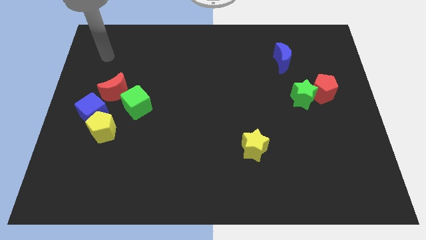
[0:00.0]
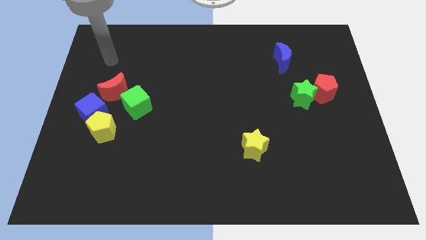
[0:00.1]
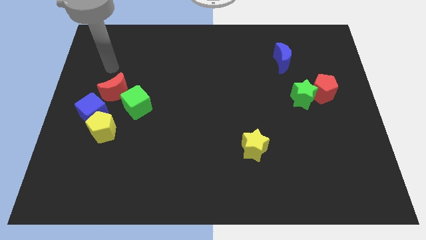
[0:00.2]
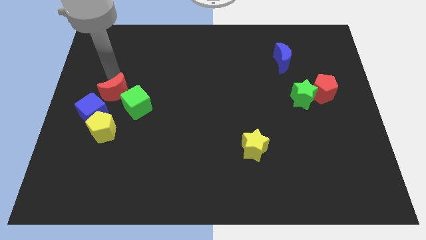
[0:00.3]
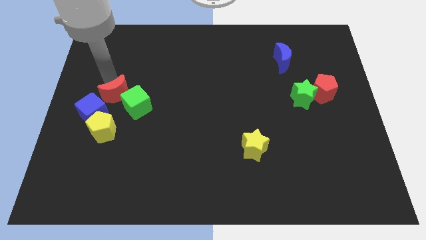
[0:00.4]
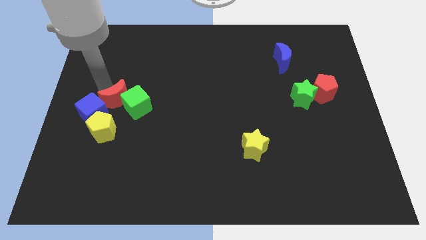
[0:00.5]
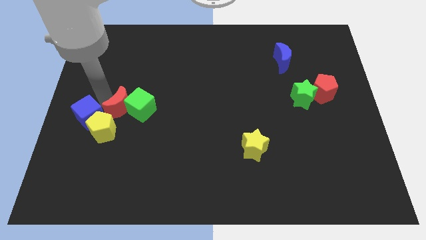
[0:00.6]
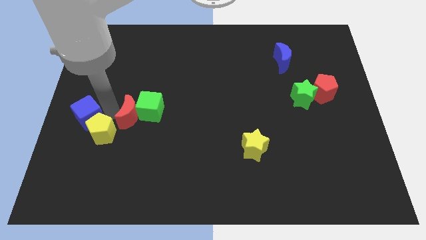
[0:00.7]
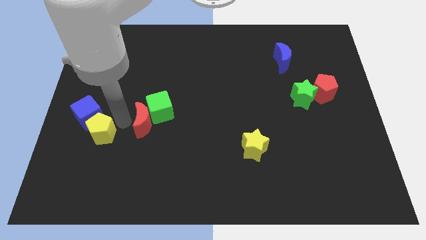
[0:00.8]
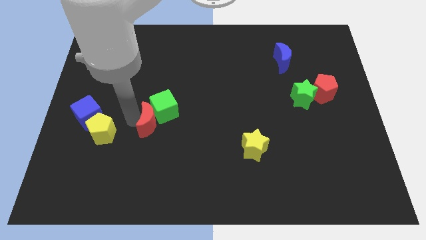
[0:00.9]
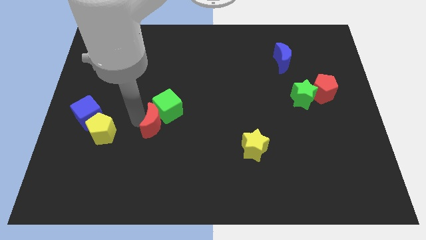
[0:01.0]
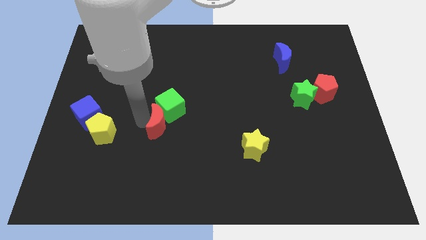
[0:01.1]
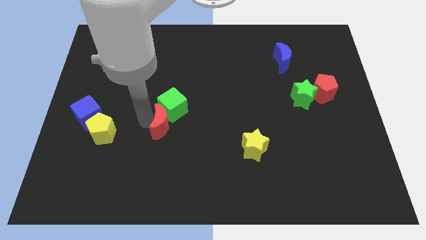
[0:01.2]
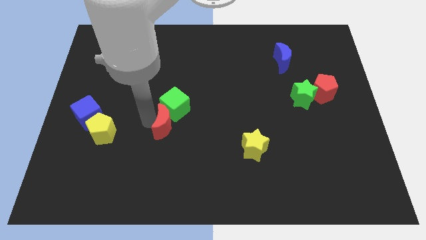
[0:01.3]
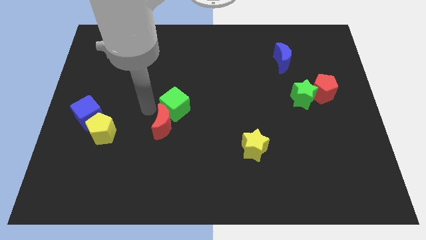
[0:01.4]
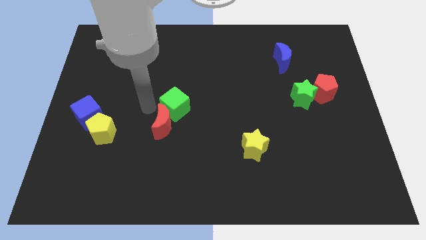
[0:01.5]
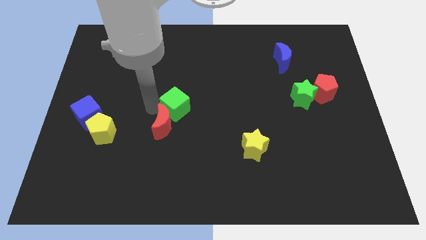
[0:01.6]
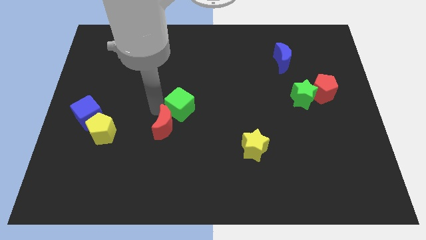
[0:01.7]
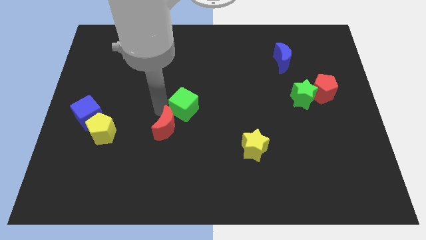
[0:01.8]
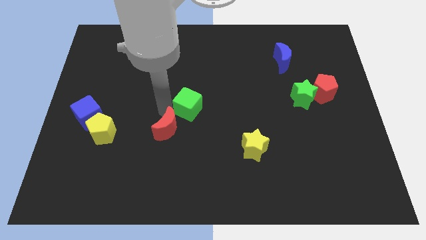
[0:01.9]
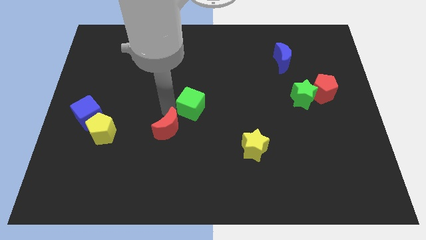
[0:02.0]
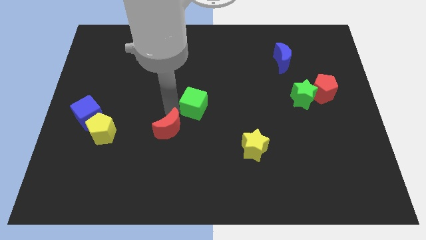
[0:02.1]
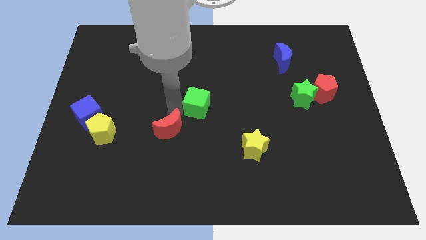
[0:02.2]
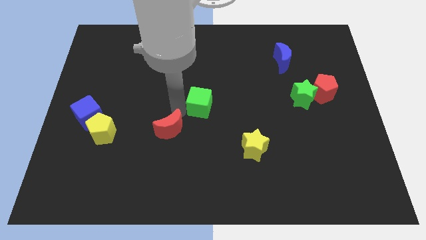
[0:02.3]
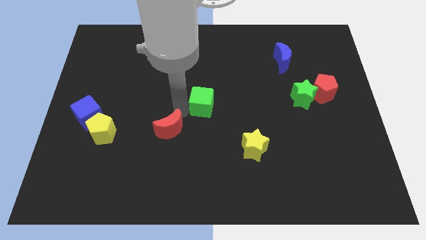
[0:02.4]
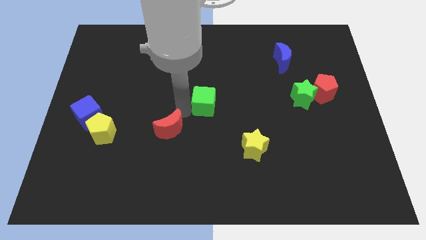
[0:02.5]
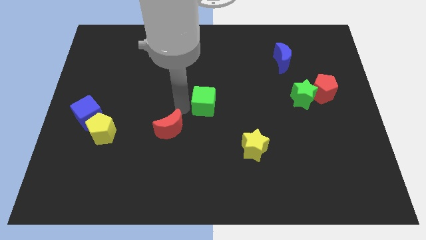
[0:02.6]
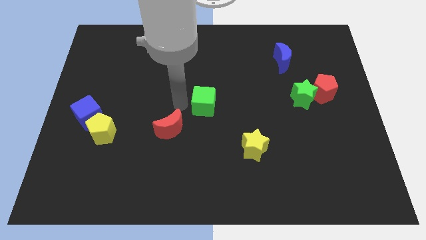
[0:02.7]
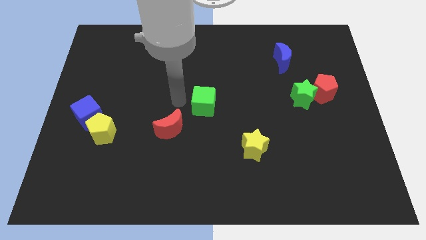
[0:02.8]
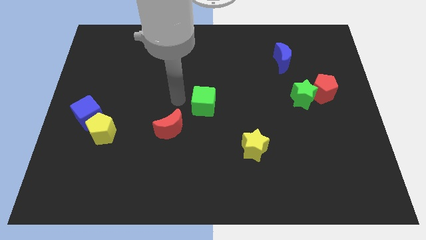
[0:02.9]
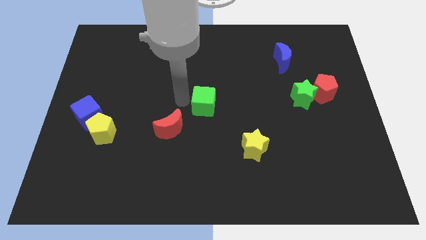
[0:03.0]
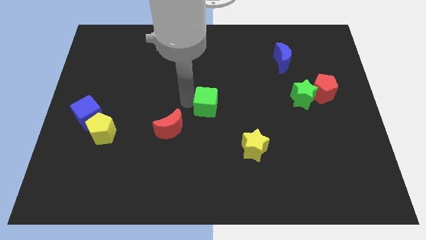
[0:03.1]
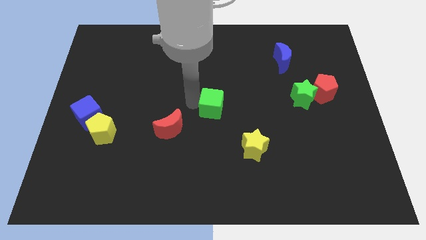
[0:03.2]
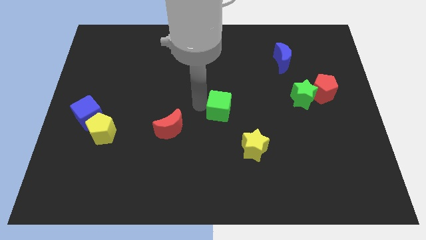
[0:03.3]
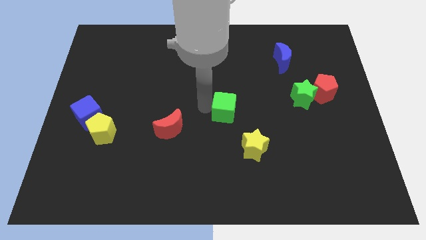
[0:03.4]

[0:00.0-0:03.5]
slide the green cube to the right

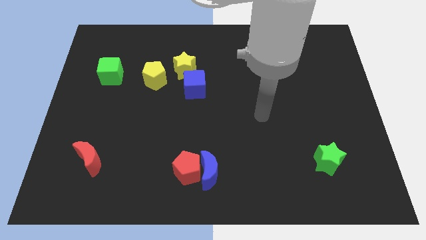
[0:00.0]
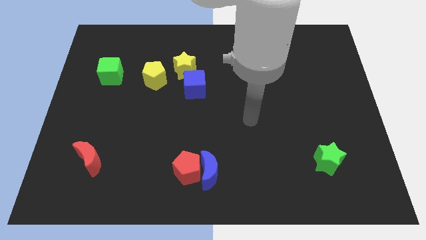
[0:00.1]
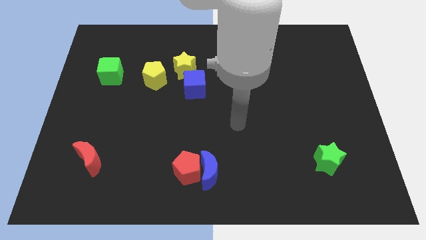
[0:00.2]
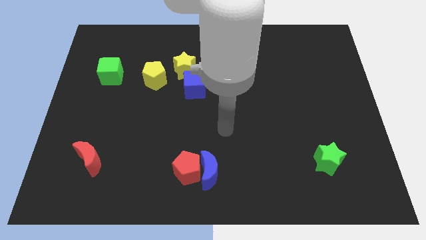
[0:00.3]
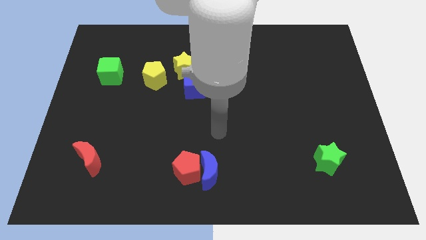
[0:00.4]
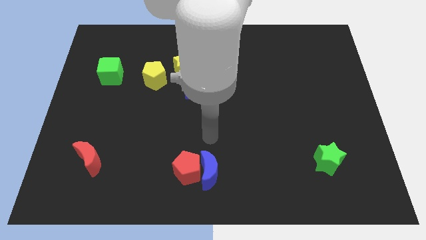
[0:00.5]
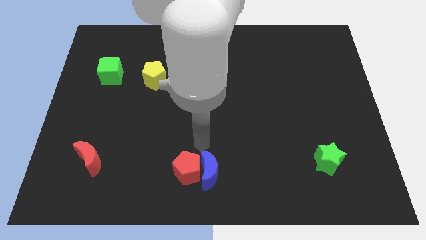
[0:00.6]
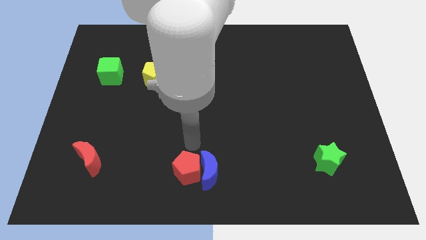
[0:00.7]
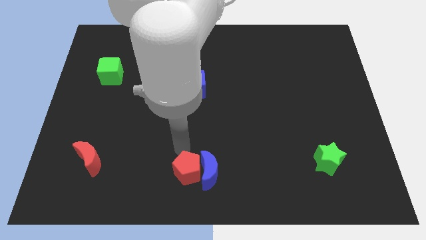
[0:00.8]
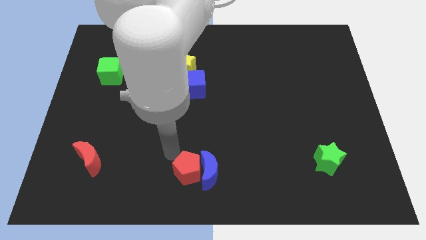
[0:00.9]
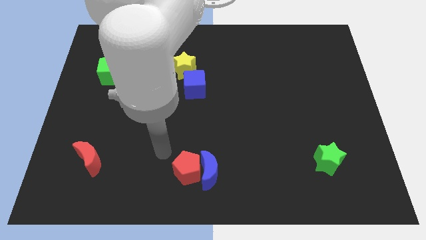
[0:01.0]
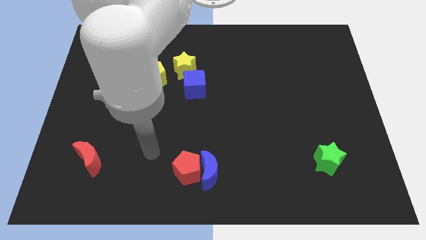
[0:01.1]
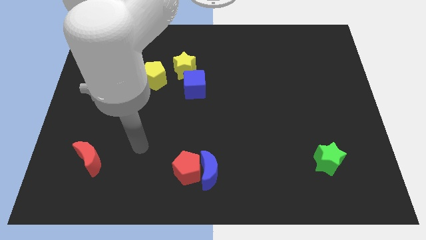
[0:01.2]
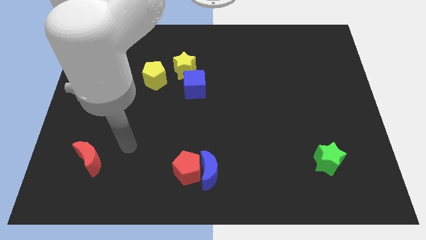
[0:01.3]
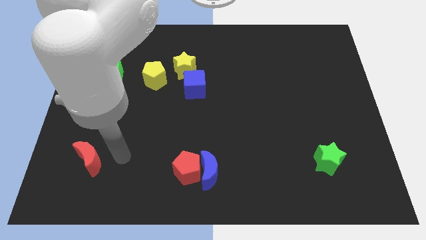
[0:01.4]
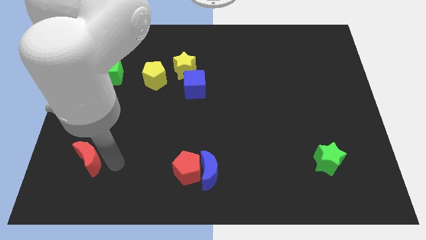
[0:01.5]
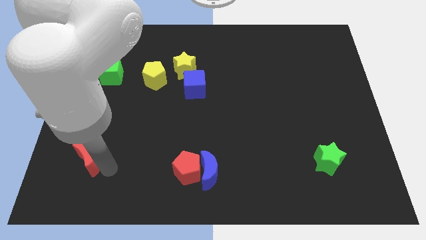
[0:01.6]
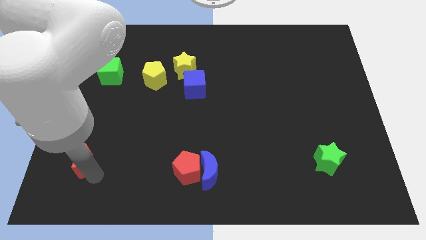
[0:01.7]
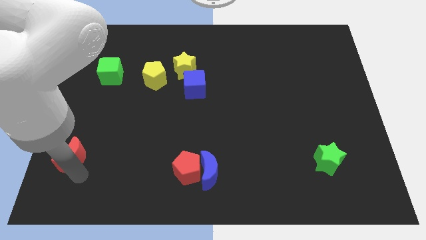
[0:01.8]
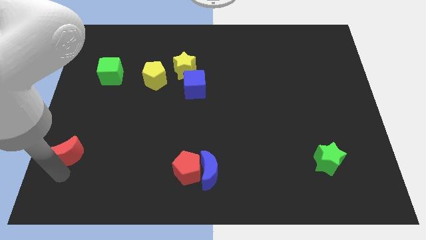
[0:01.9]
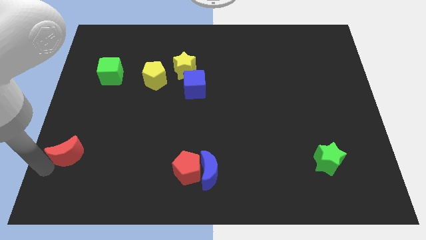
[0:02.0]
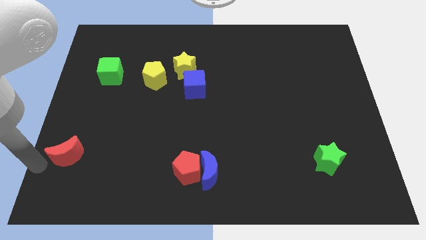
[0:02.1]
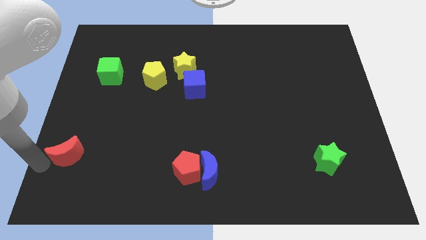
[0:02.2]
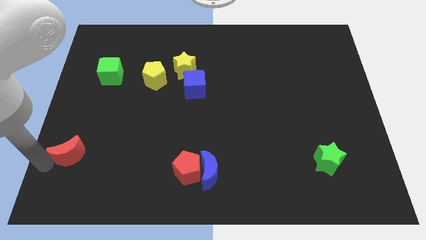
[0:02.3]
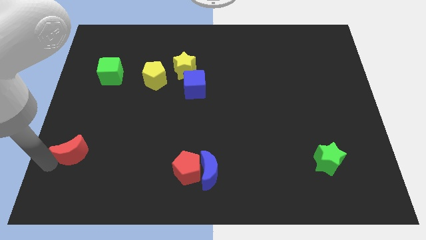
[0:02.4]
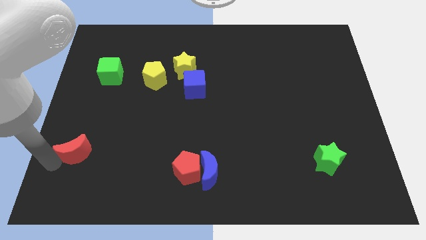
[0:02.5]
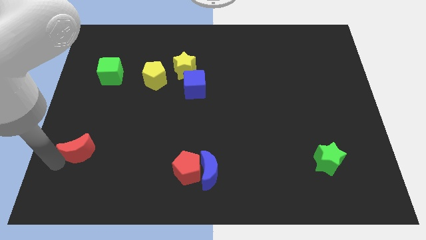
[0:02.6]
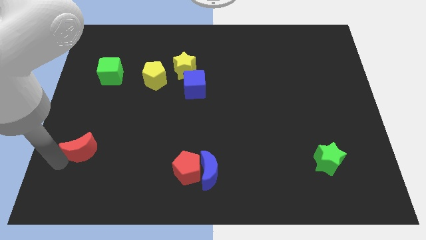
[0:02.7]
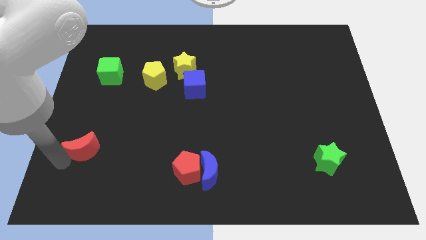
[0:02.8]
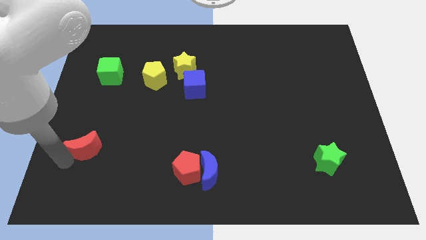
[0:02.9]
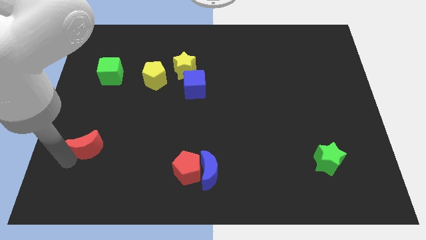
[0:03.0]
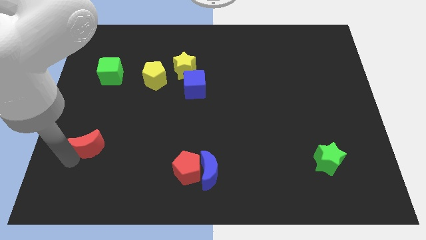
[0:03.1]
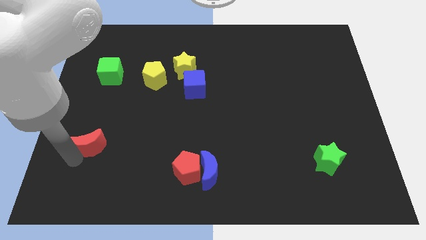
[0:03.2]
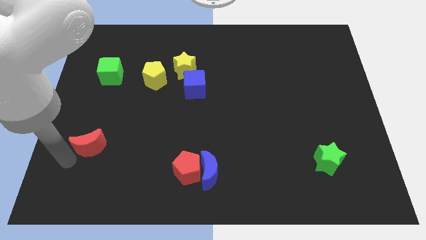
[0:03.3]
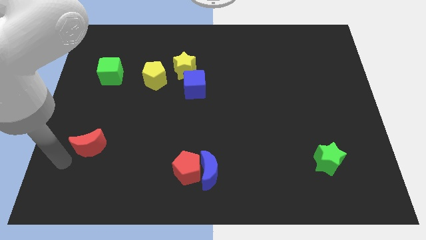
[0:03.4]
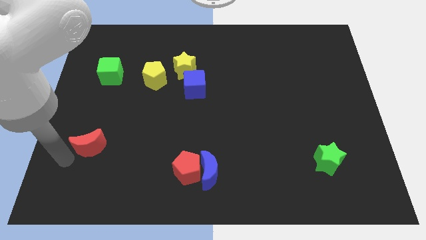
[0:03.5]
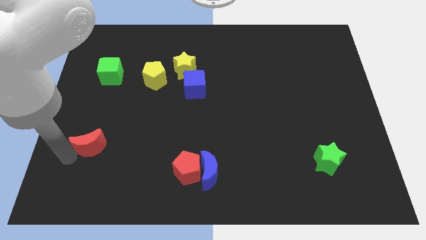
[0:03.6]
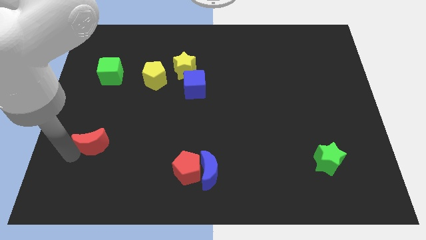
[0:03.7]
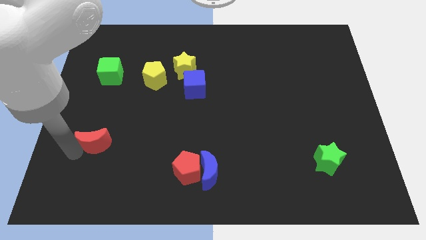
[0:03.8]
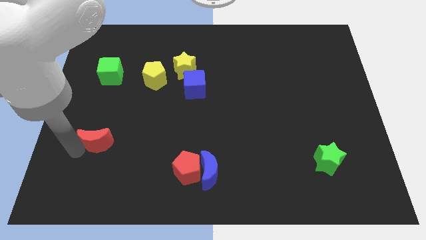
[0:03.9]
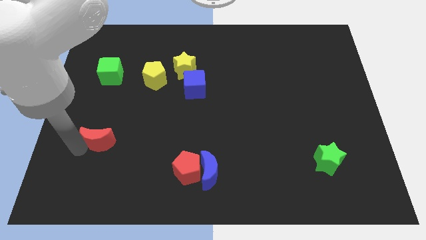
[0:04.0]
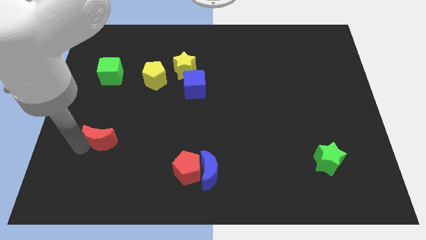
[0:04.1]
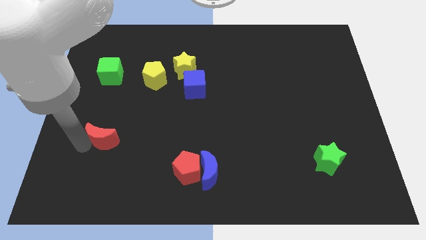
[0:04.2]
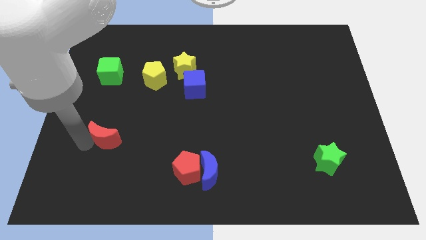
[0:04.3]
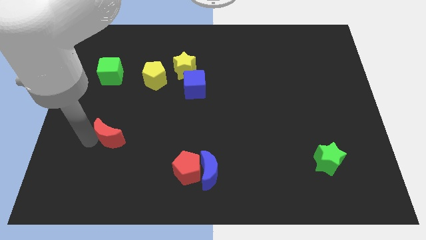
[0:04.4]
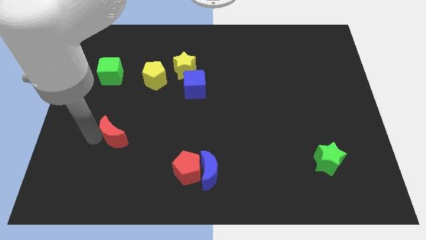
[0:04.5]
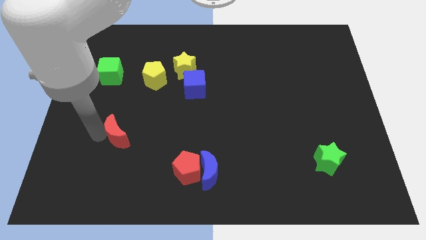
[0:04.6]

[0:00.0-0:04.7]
slide the red moon upwards and to the right a bit
